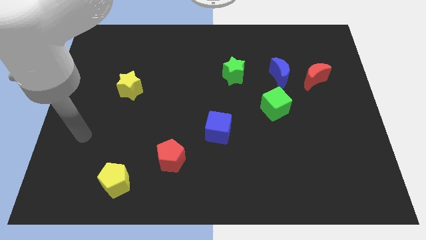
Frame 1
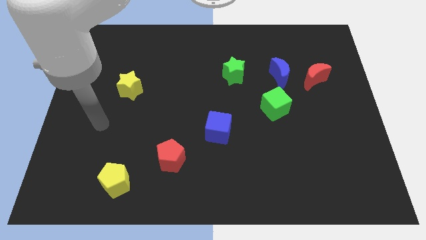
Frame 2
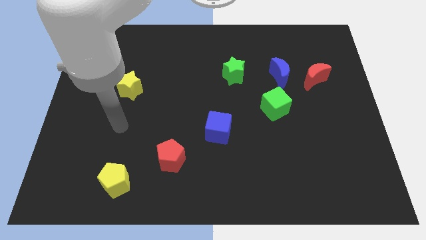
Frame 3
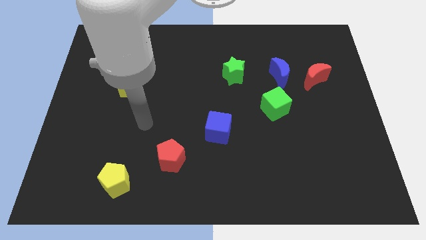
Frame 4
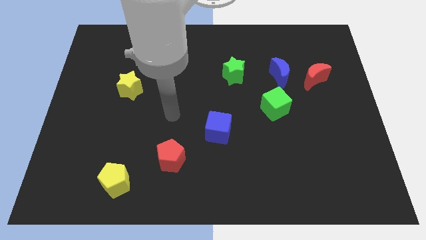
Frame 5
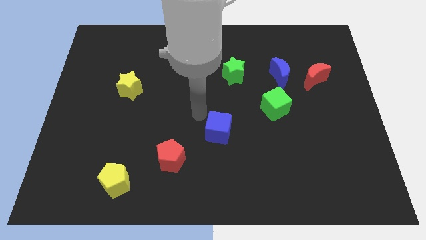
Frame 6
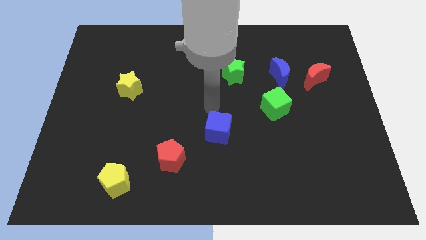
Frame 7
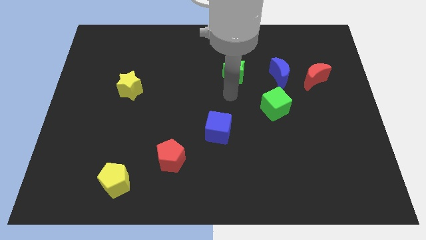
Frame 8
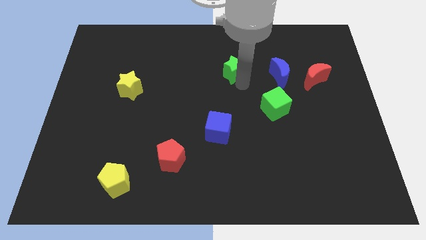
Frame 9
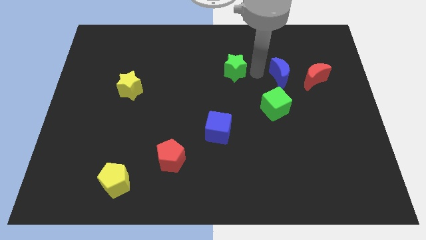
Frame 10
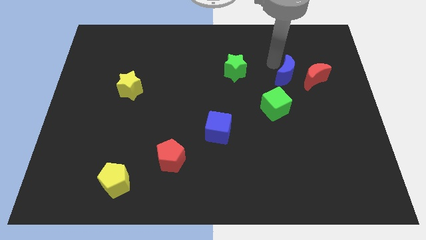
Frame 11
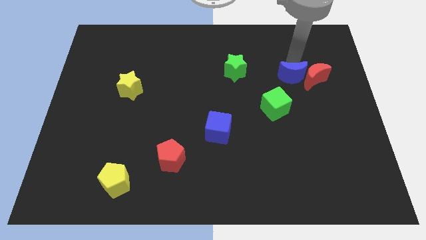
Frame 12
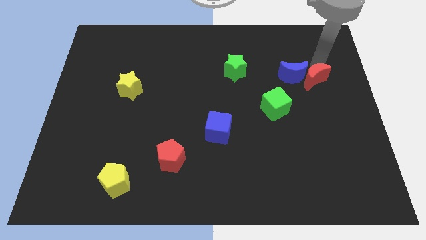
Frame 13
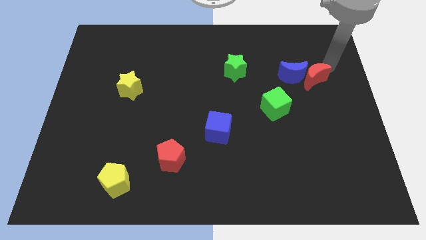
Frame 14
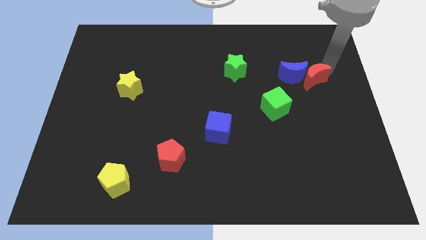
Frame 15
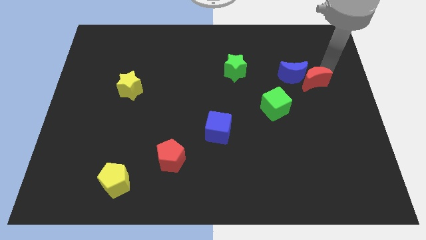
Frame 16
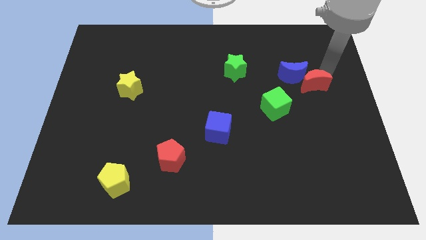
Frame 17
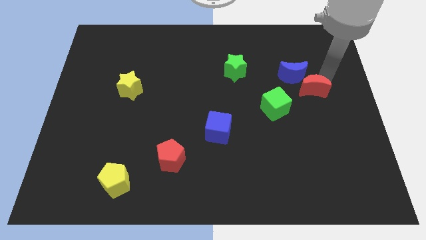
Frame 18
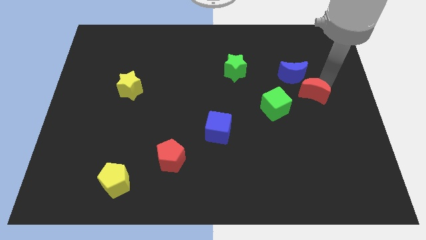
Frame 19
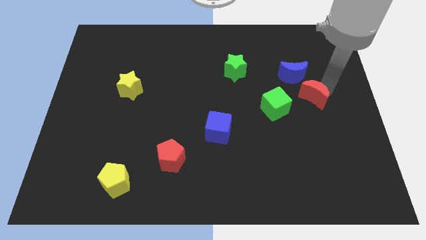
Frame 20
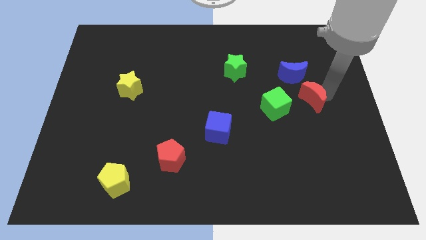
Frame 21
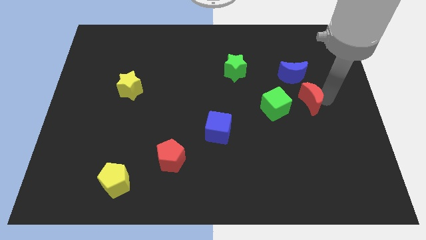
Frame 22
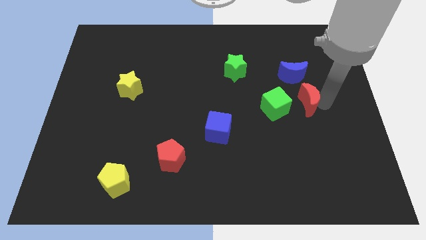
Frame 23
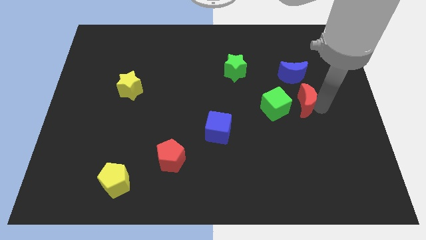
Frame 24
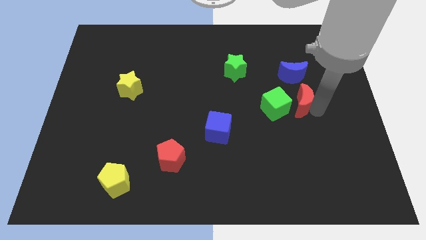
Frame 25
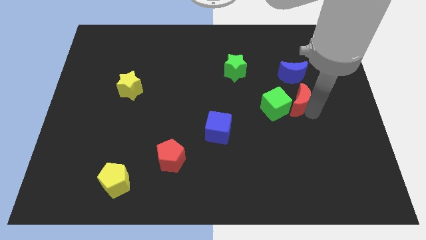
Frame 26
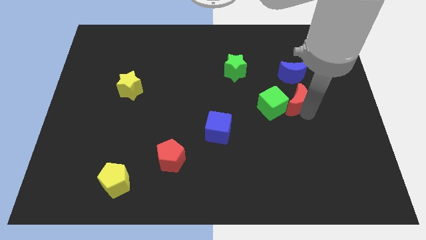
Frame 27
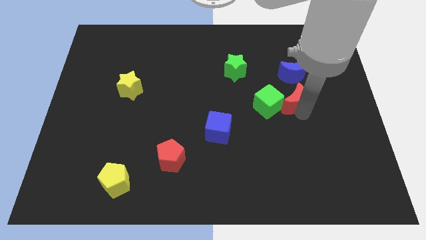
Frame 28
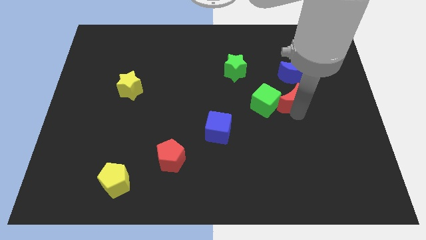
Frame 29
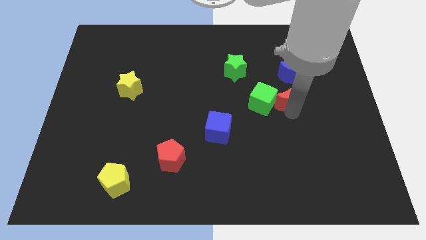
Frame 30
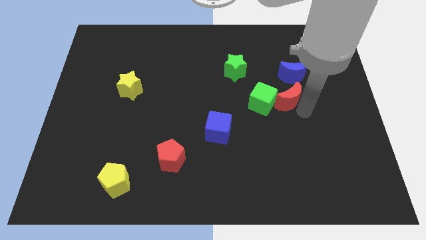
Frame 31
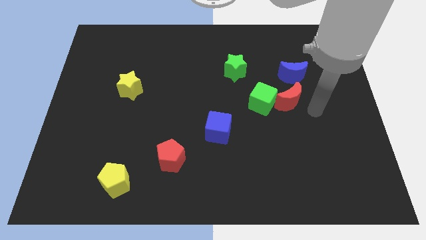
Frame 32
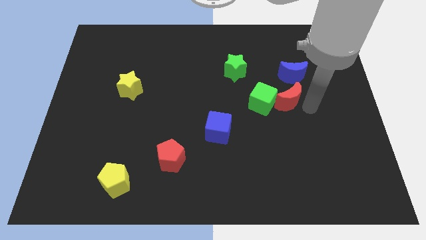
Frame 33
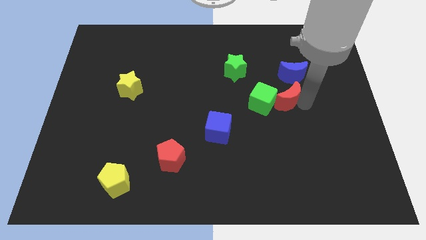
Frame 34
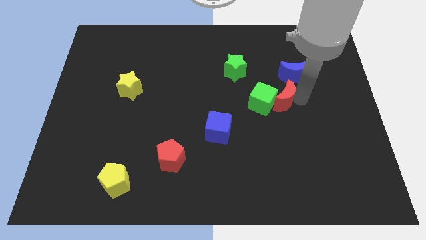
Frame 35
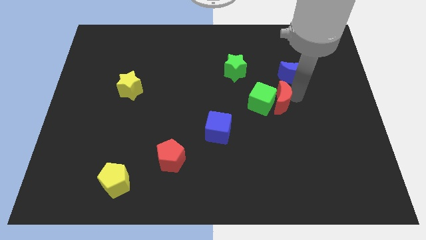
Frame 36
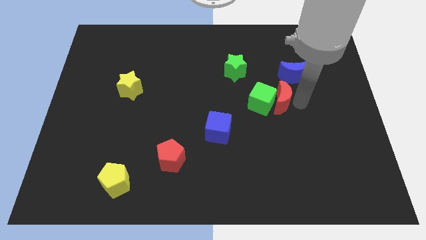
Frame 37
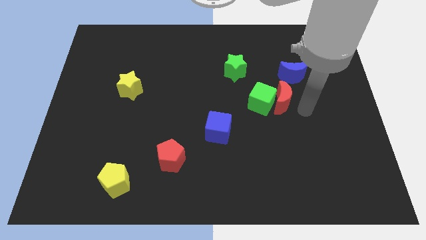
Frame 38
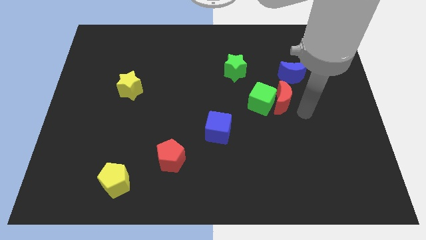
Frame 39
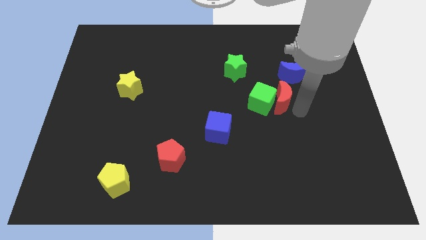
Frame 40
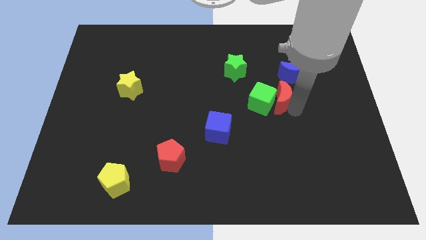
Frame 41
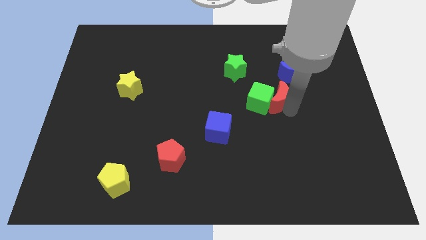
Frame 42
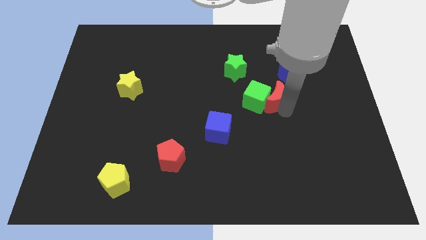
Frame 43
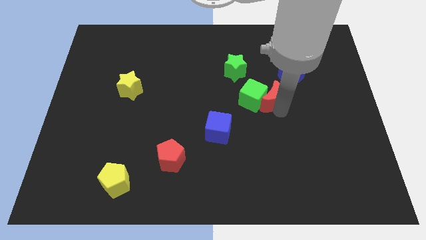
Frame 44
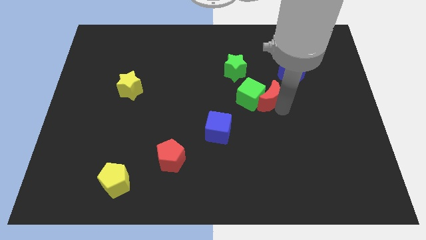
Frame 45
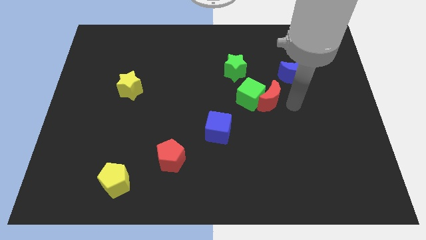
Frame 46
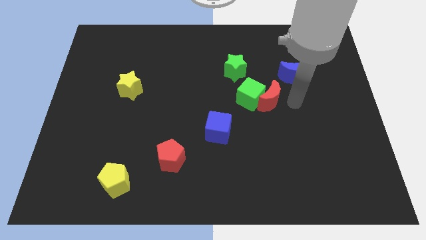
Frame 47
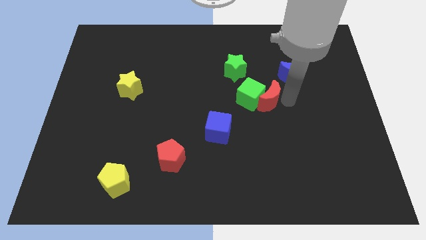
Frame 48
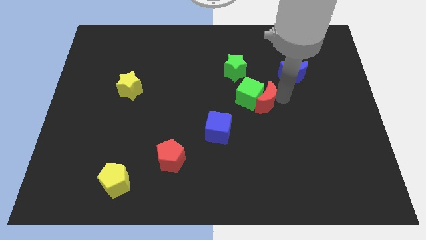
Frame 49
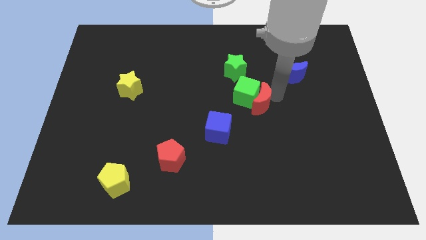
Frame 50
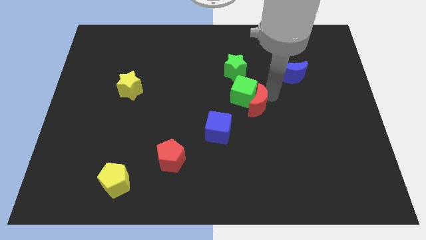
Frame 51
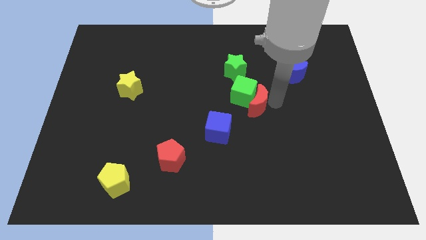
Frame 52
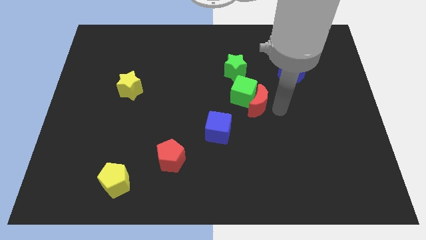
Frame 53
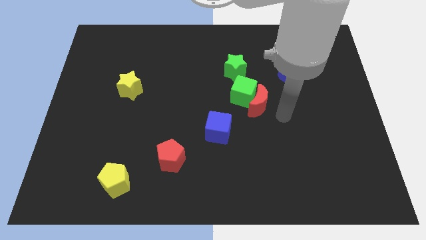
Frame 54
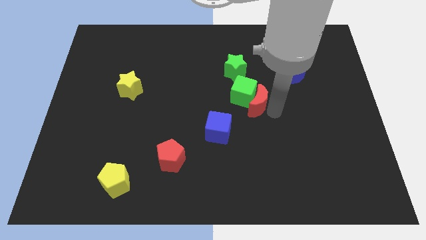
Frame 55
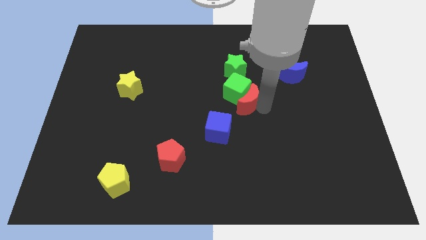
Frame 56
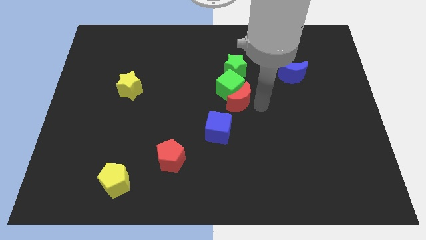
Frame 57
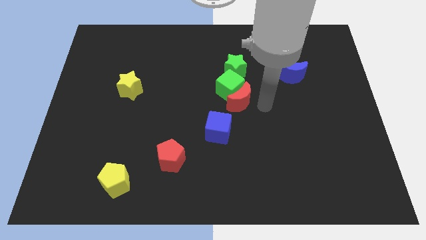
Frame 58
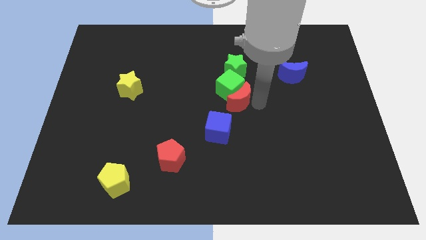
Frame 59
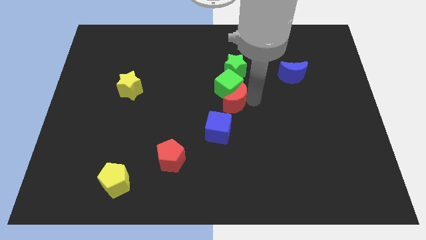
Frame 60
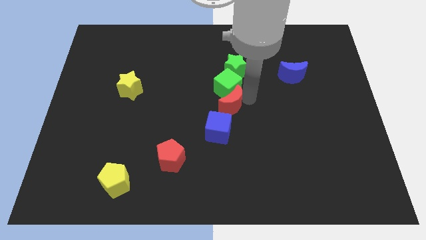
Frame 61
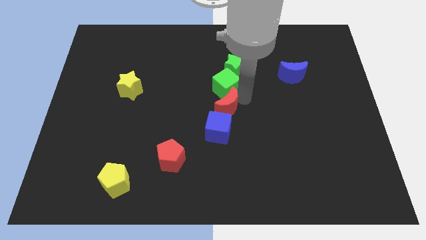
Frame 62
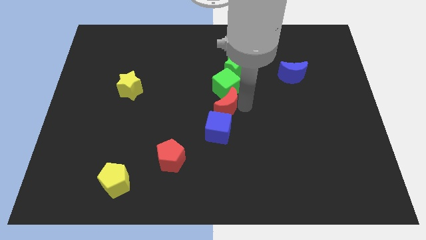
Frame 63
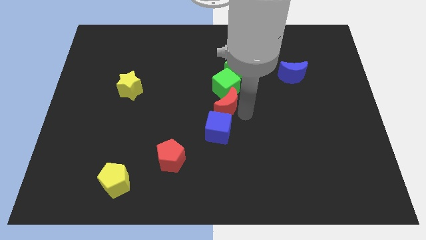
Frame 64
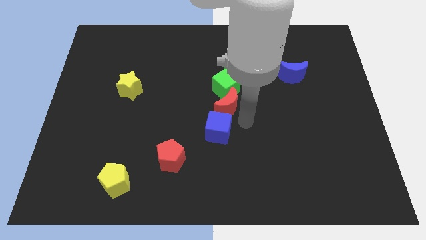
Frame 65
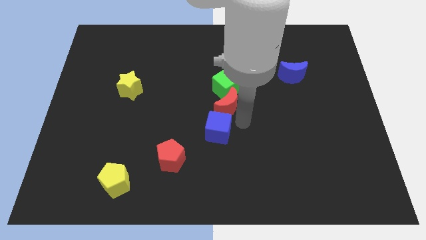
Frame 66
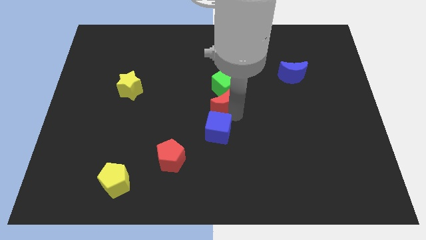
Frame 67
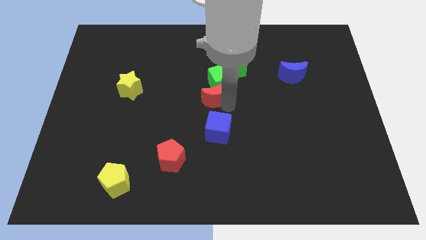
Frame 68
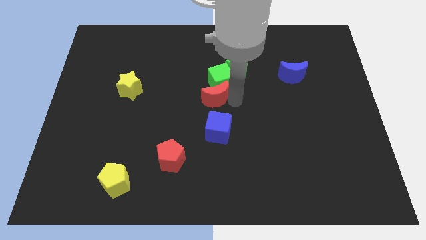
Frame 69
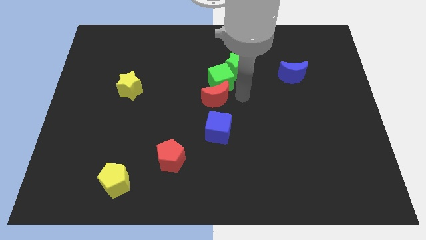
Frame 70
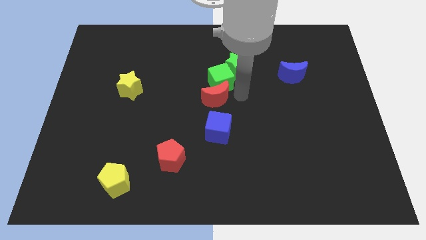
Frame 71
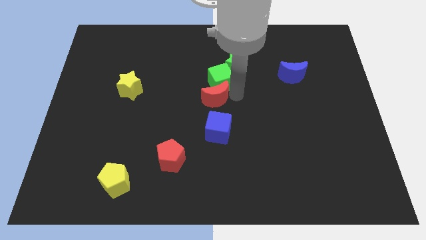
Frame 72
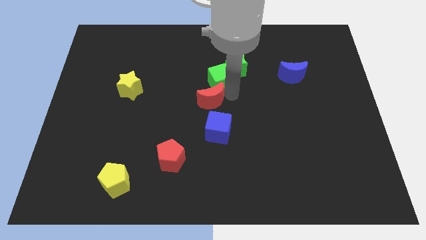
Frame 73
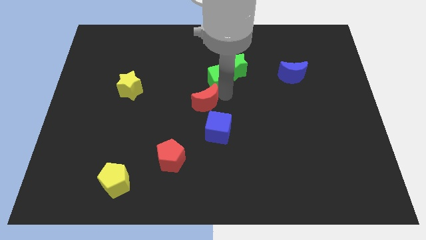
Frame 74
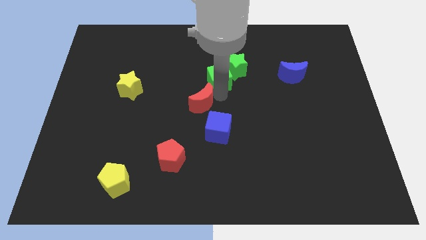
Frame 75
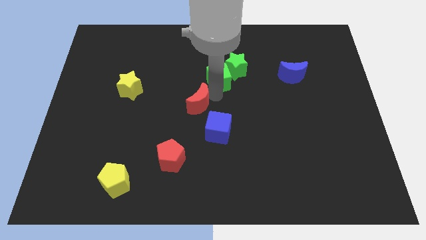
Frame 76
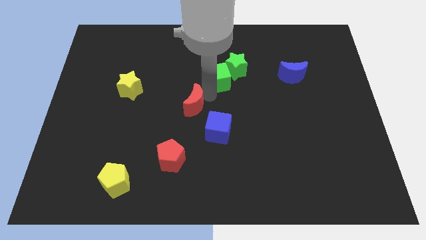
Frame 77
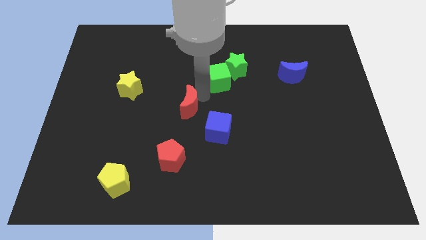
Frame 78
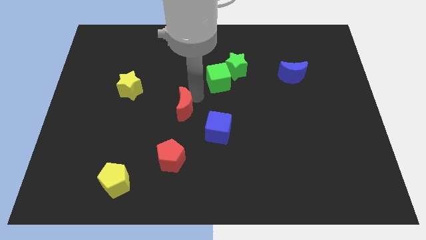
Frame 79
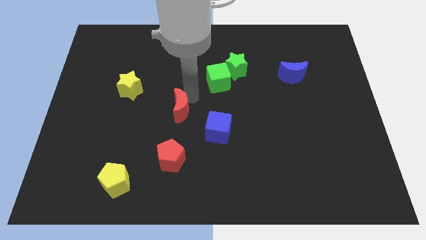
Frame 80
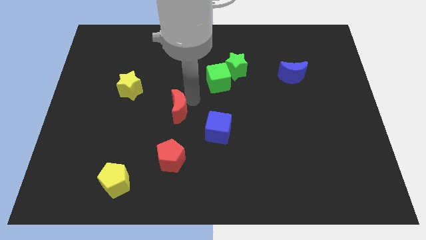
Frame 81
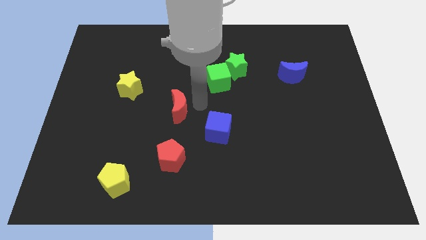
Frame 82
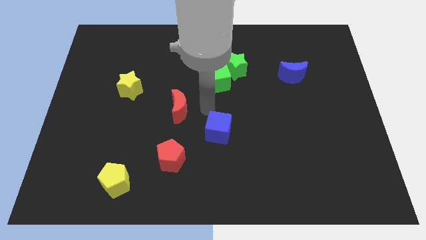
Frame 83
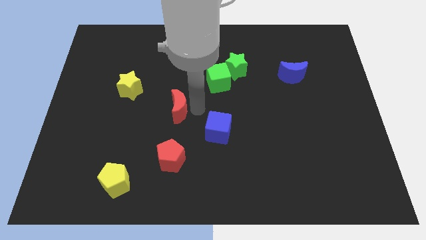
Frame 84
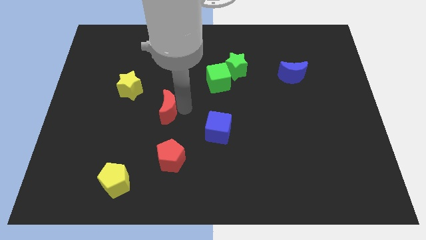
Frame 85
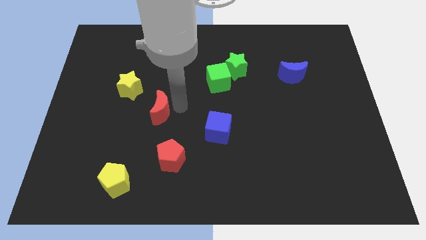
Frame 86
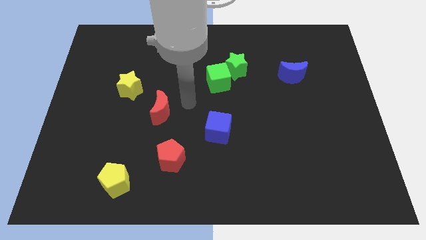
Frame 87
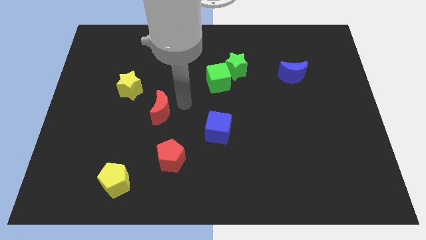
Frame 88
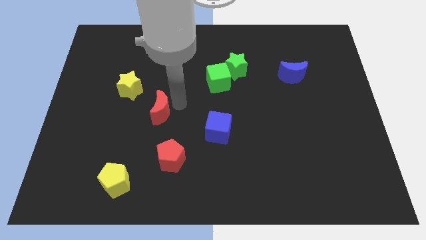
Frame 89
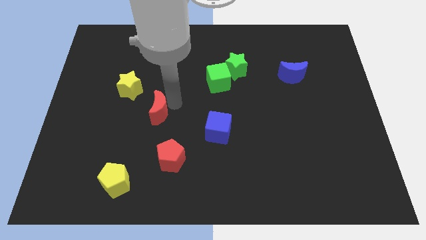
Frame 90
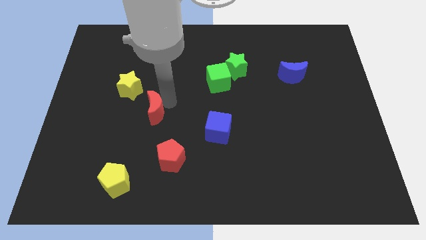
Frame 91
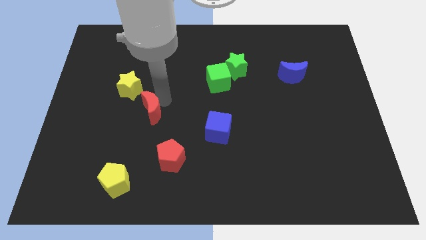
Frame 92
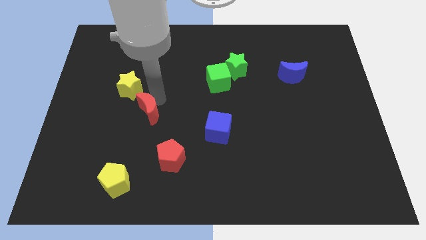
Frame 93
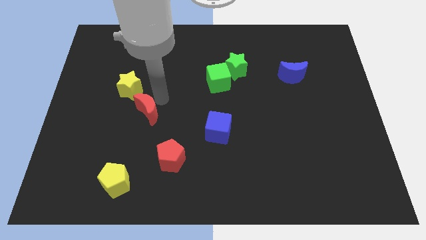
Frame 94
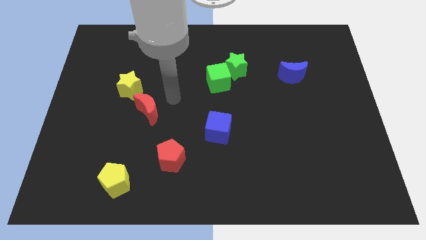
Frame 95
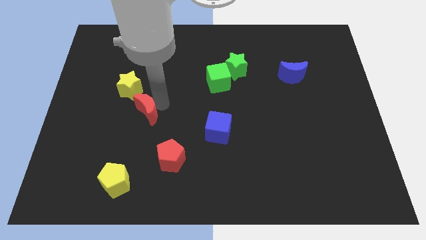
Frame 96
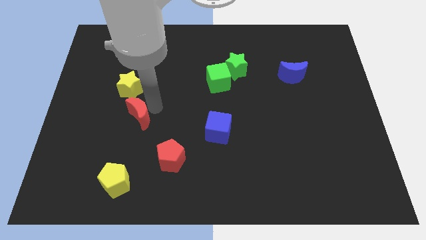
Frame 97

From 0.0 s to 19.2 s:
move the red moon below the yellow star
